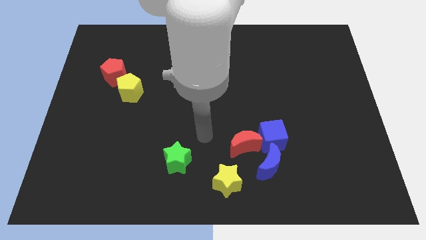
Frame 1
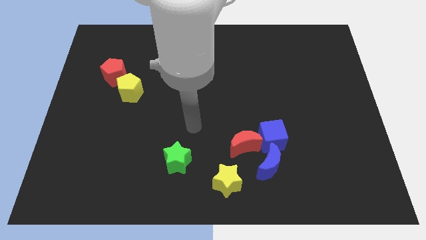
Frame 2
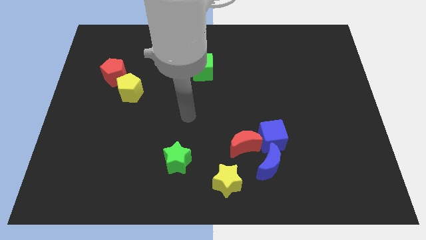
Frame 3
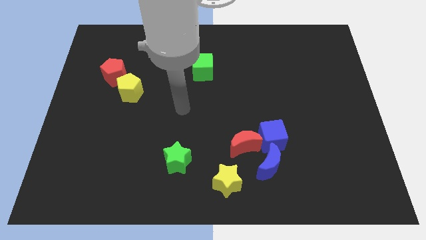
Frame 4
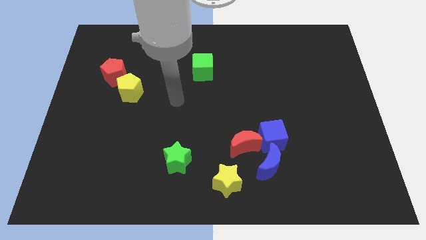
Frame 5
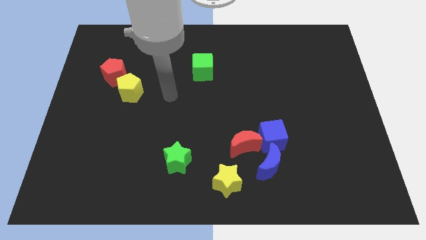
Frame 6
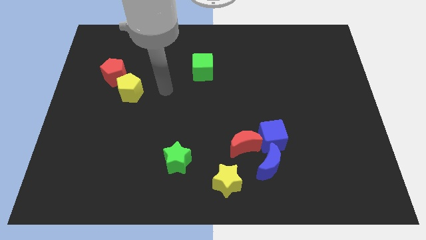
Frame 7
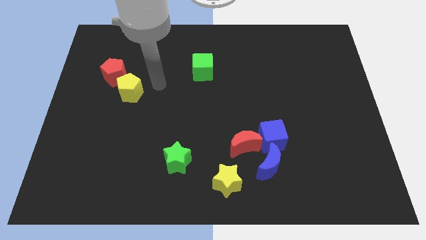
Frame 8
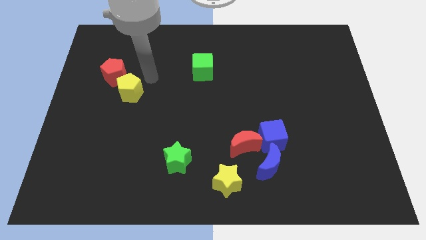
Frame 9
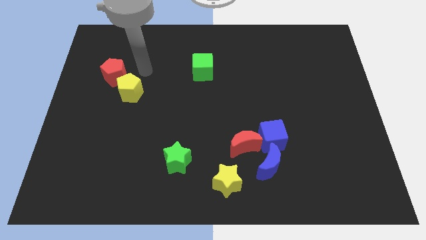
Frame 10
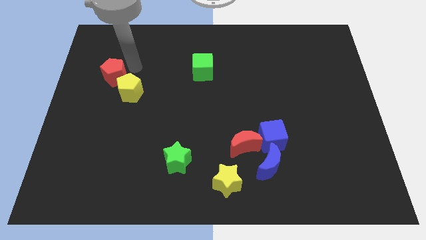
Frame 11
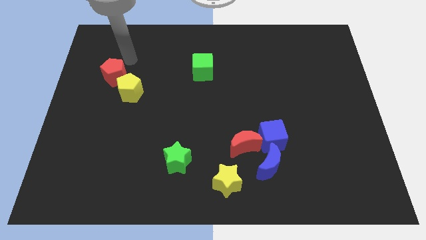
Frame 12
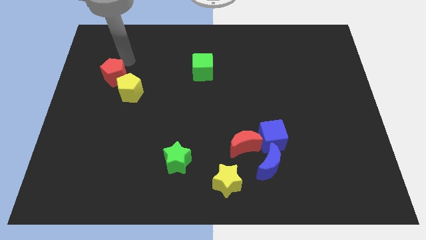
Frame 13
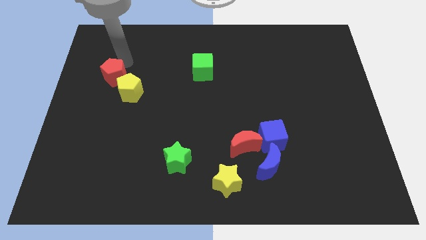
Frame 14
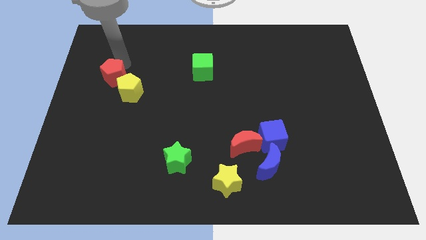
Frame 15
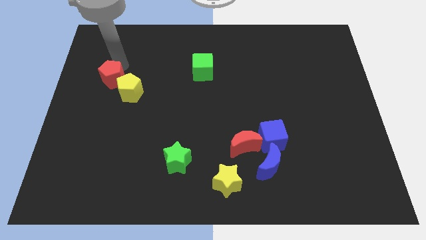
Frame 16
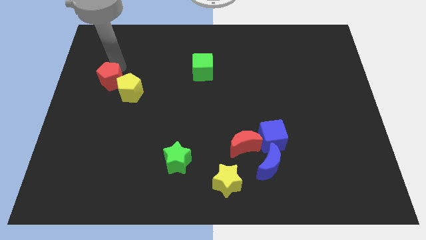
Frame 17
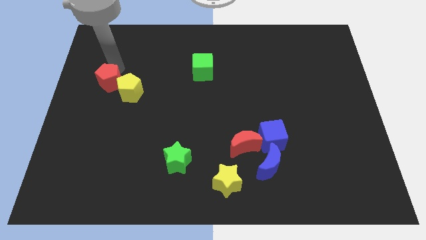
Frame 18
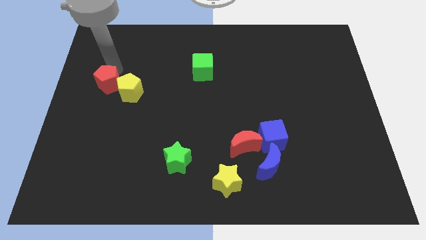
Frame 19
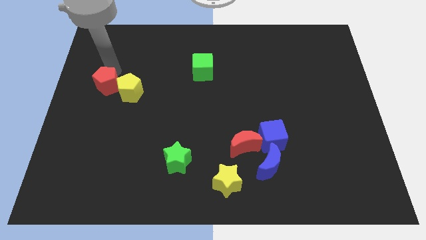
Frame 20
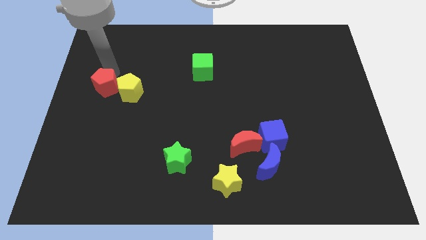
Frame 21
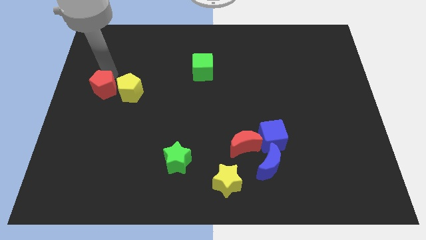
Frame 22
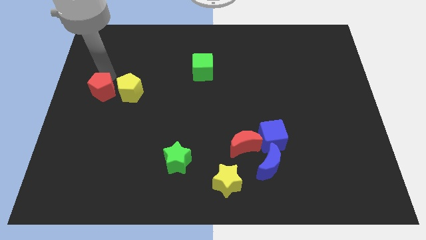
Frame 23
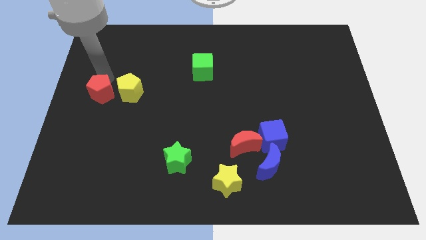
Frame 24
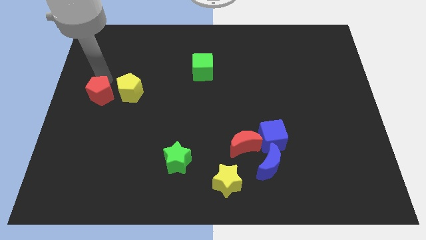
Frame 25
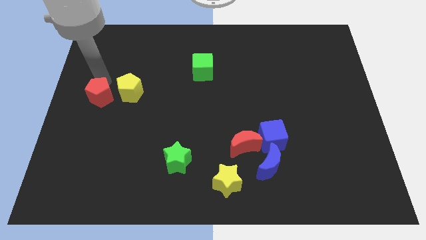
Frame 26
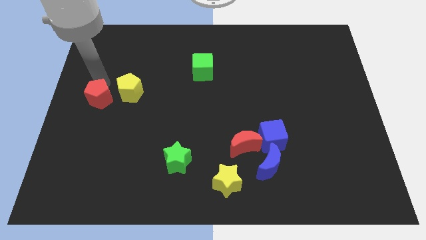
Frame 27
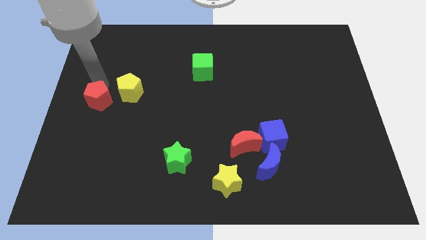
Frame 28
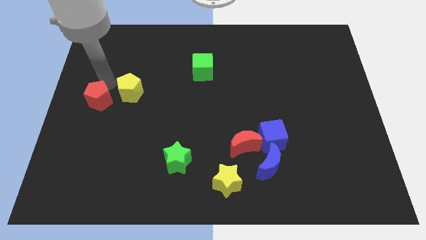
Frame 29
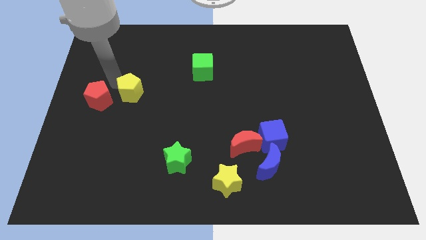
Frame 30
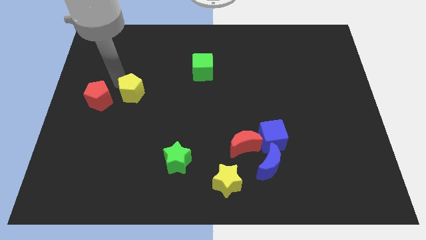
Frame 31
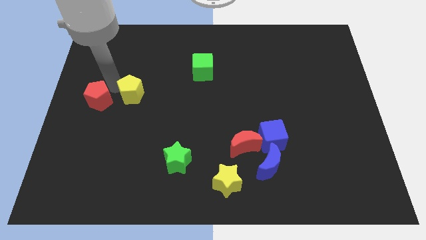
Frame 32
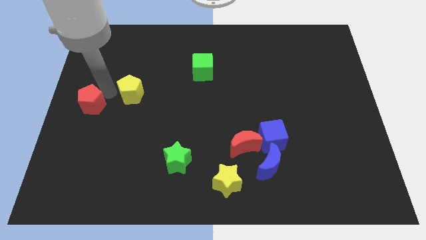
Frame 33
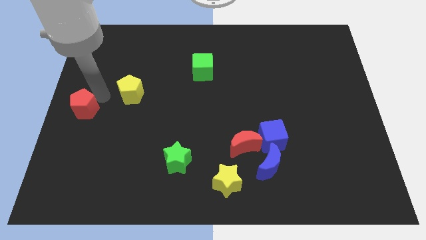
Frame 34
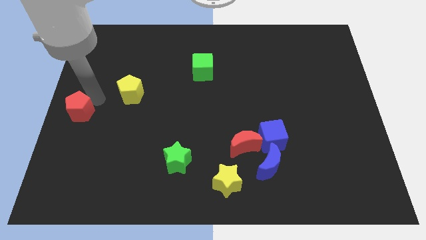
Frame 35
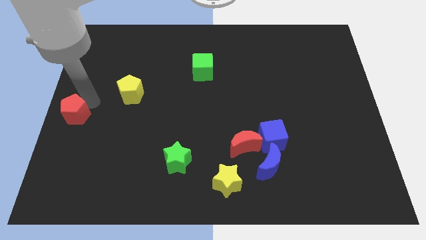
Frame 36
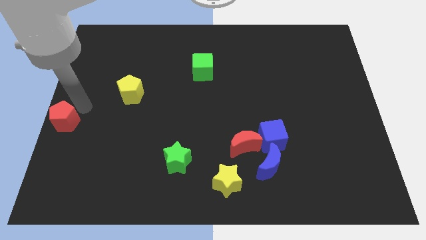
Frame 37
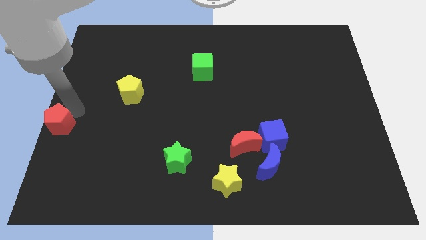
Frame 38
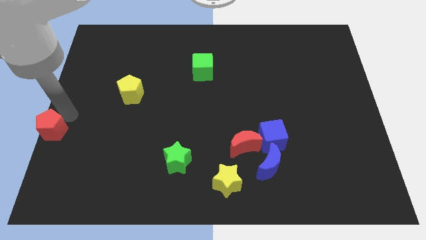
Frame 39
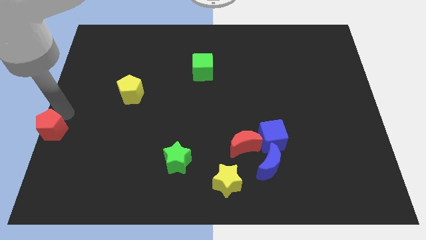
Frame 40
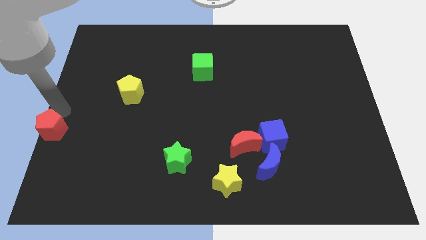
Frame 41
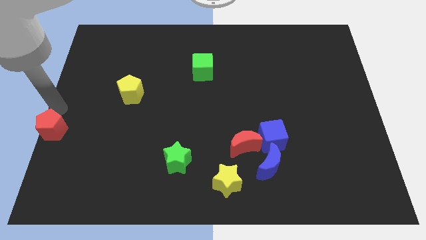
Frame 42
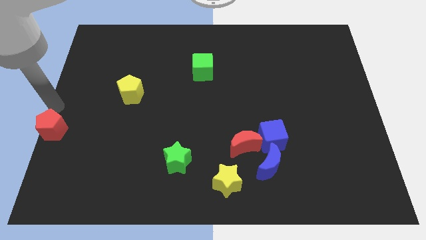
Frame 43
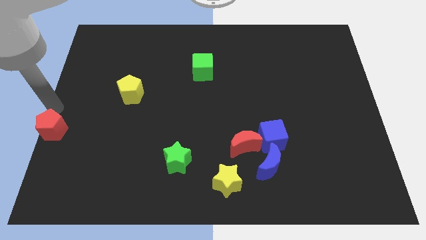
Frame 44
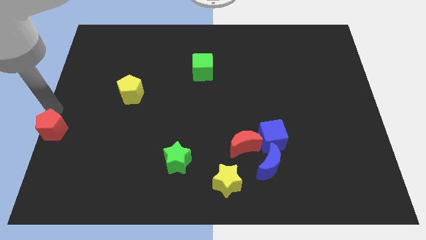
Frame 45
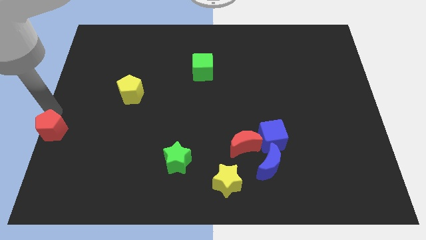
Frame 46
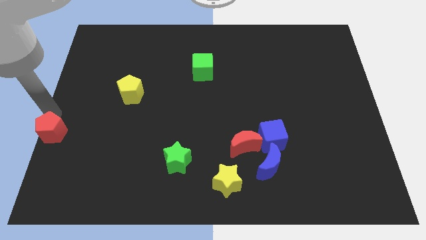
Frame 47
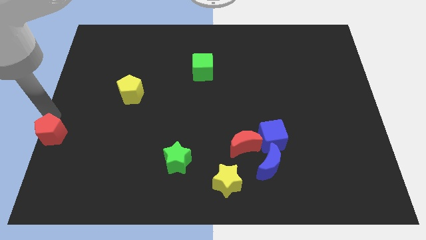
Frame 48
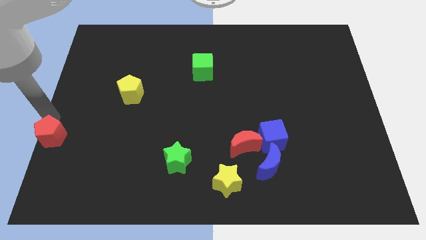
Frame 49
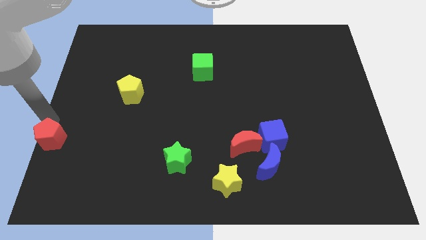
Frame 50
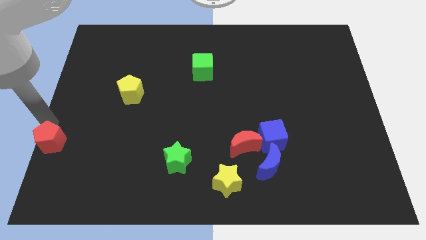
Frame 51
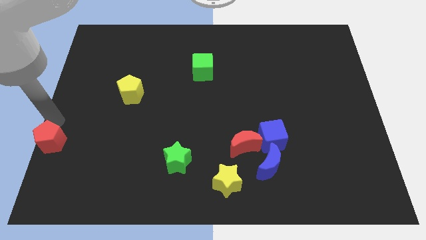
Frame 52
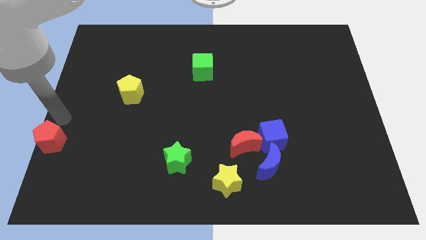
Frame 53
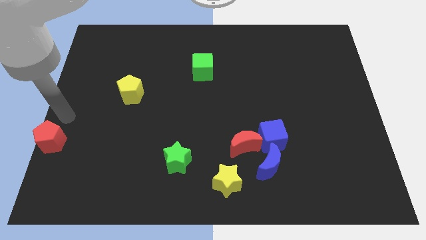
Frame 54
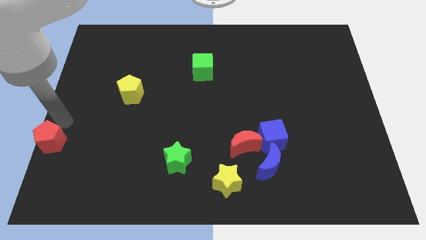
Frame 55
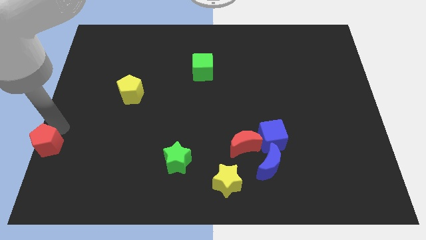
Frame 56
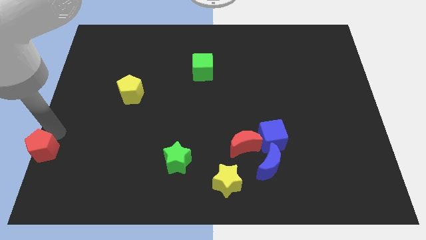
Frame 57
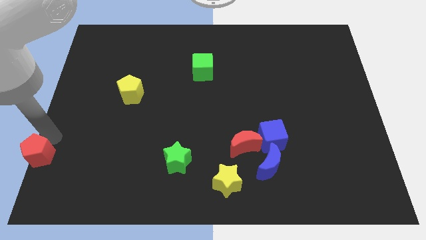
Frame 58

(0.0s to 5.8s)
push the red pentagon to the bottom left of the board

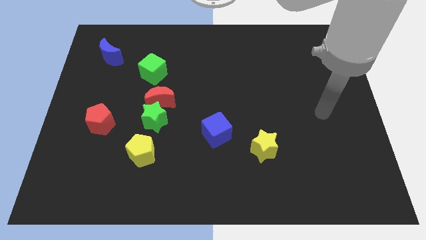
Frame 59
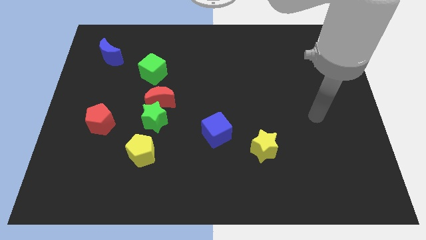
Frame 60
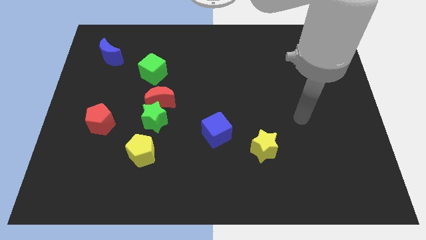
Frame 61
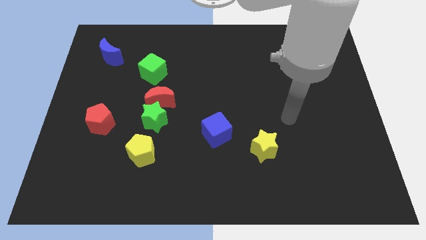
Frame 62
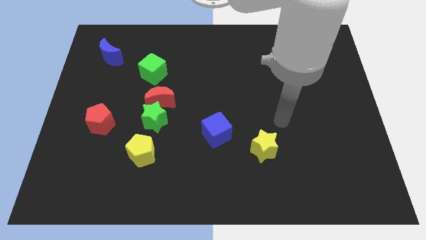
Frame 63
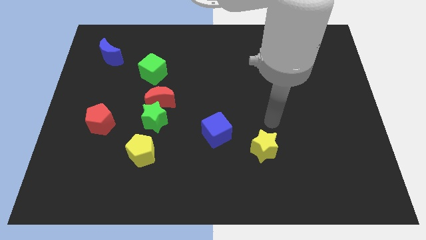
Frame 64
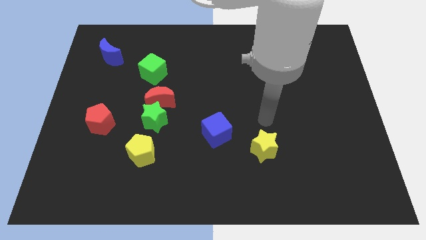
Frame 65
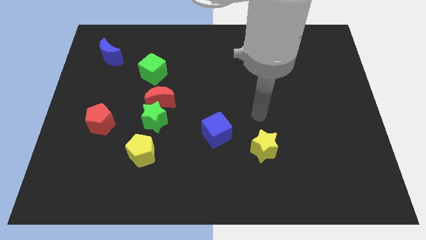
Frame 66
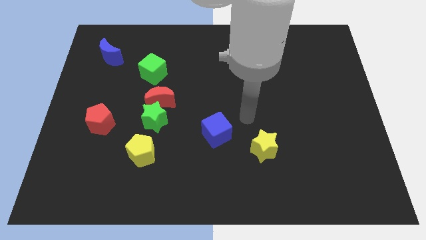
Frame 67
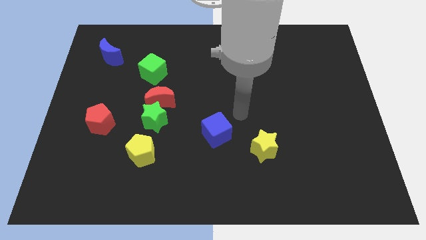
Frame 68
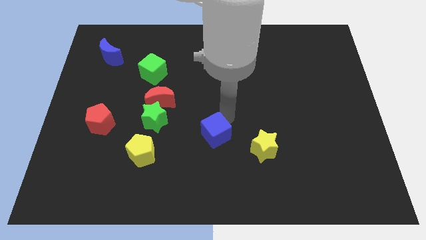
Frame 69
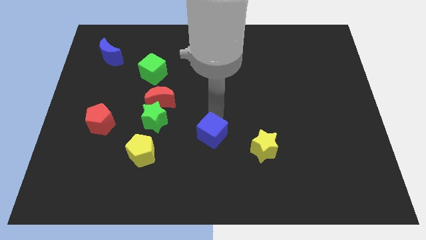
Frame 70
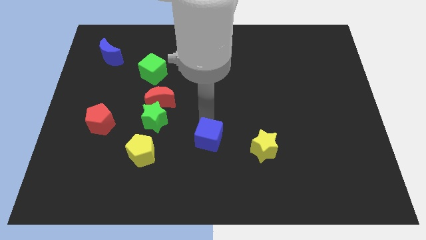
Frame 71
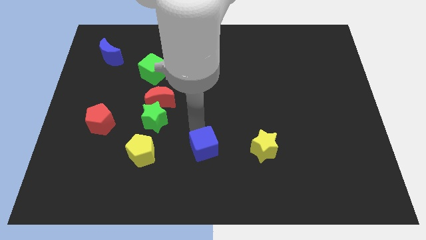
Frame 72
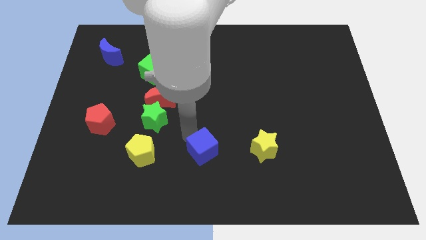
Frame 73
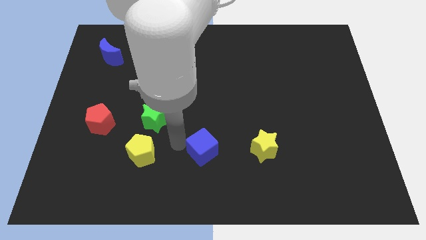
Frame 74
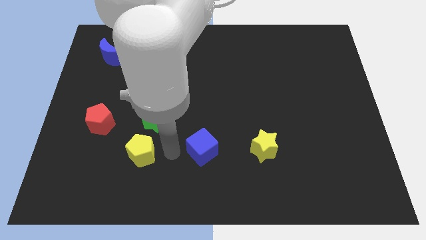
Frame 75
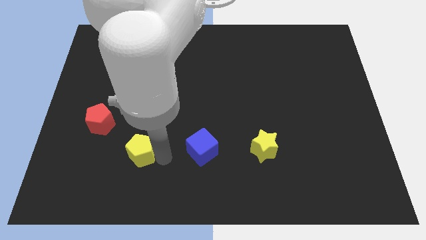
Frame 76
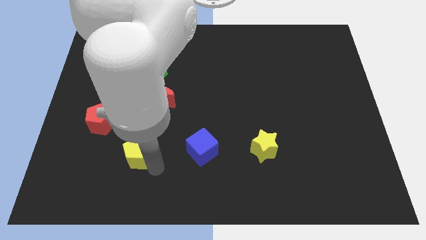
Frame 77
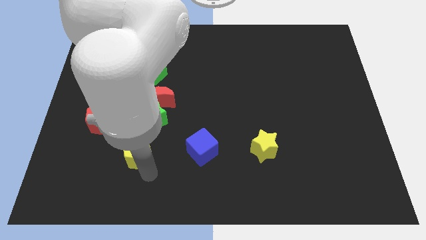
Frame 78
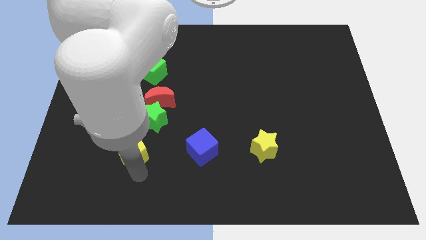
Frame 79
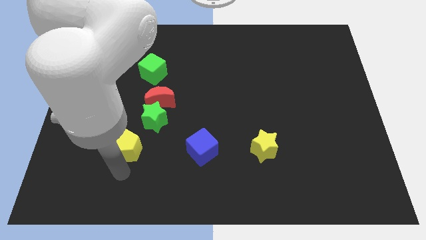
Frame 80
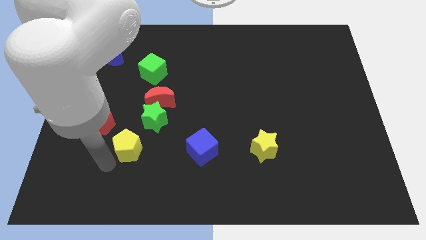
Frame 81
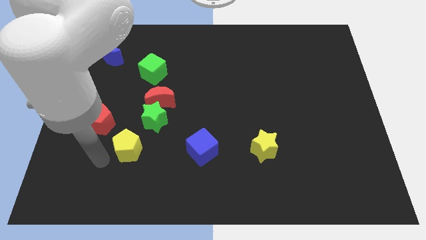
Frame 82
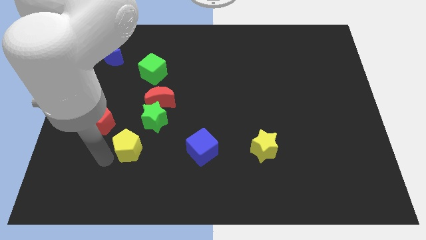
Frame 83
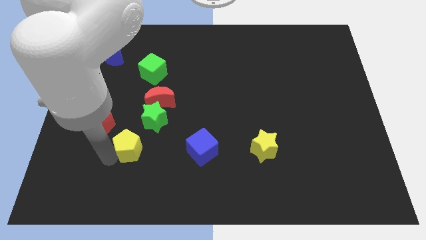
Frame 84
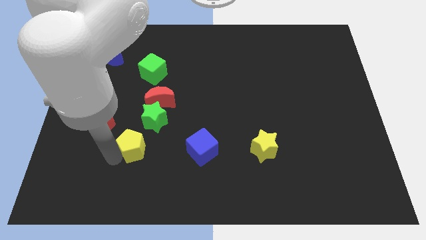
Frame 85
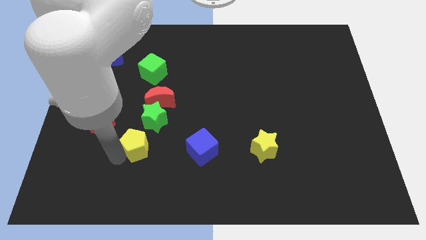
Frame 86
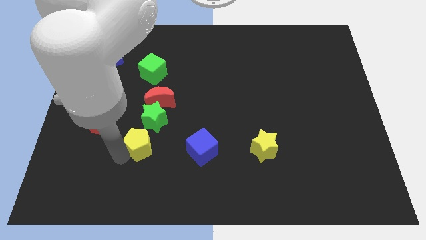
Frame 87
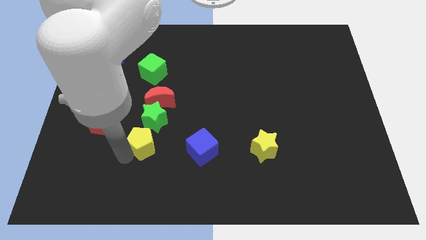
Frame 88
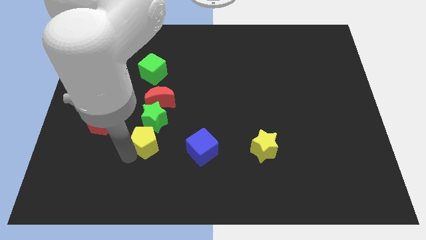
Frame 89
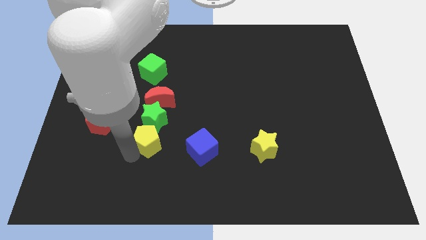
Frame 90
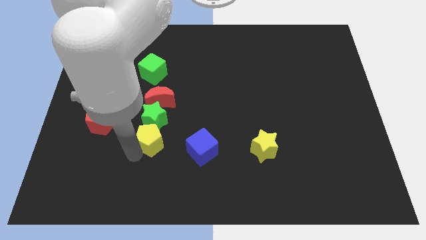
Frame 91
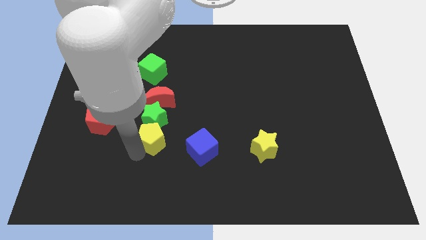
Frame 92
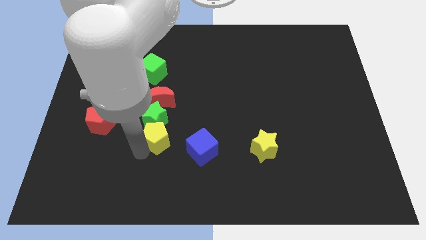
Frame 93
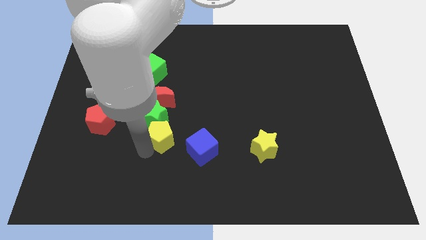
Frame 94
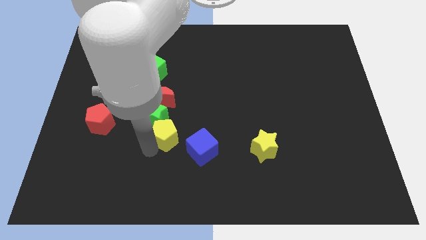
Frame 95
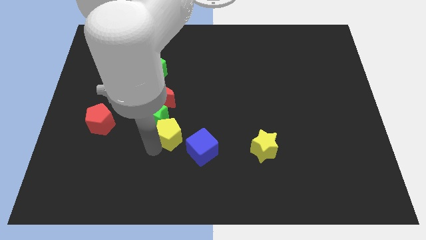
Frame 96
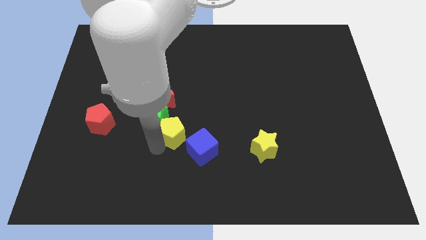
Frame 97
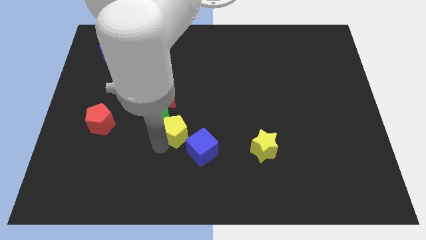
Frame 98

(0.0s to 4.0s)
push the yellow pentagon to the middle of the board
